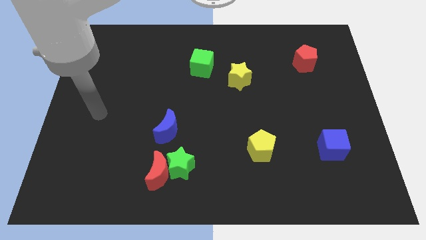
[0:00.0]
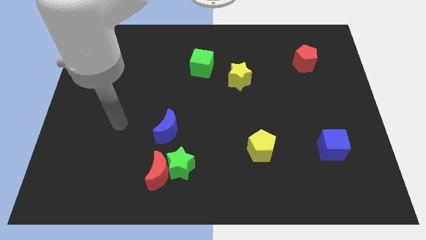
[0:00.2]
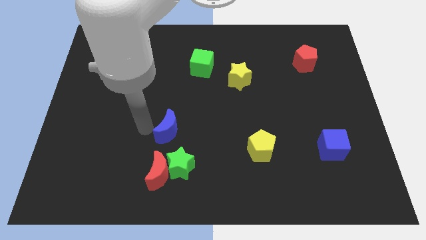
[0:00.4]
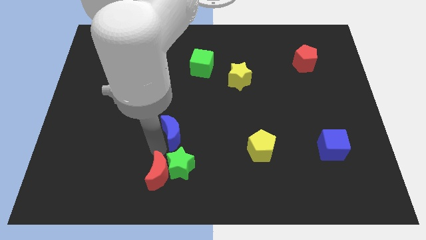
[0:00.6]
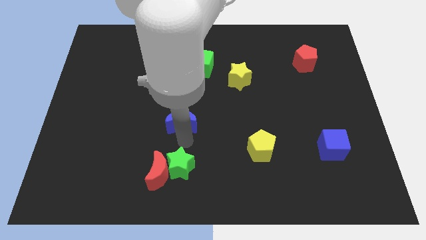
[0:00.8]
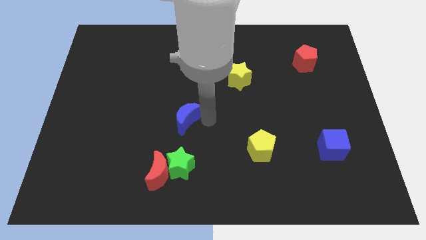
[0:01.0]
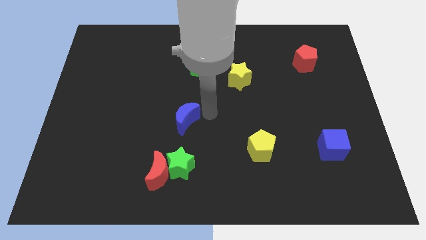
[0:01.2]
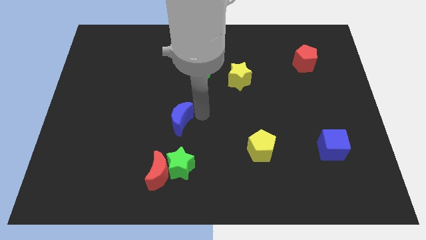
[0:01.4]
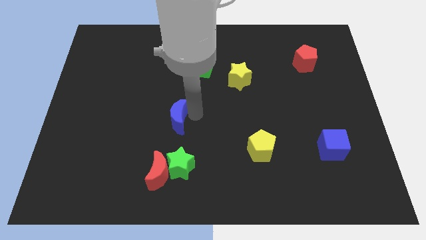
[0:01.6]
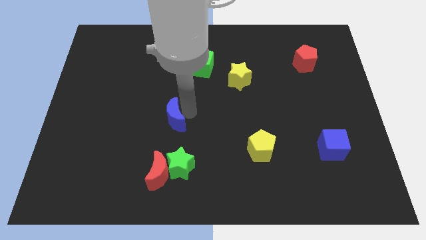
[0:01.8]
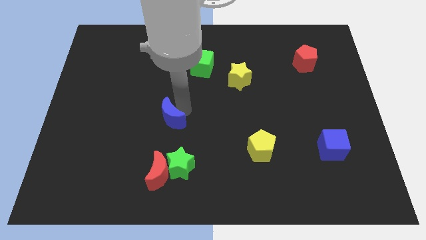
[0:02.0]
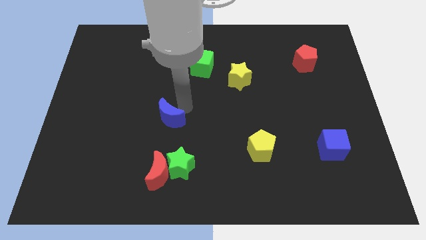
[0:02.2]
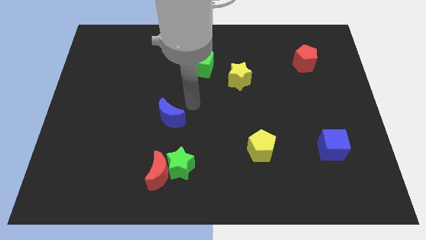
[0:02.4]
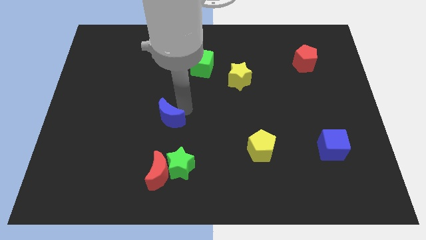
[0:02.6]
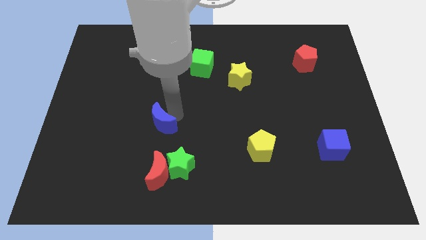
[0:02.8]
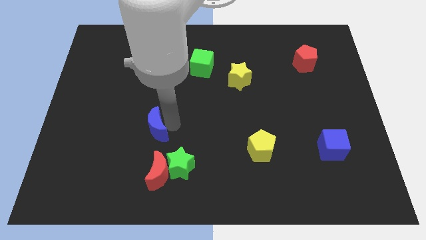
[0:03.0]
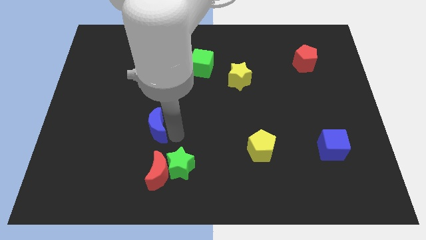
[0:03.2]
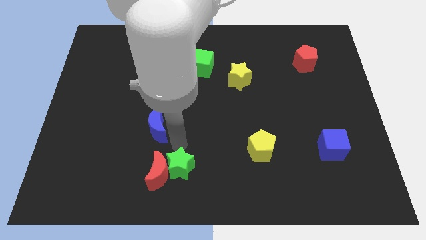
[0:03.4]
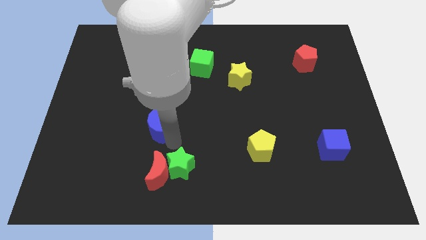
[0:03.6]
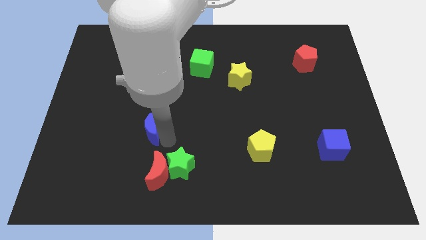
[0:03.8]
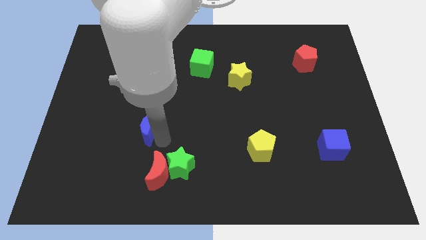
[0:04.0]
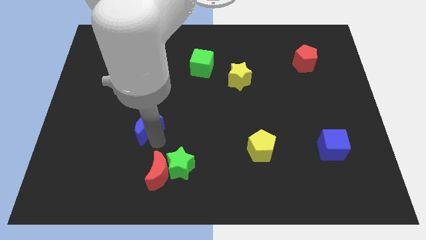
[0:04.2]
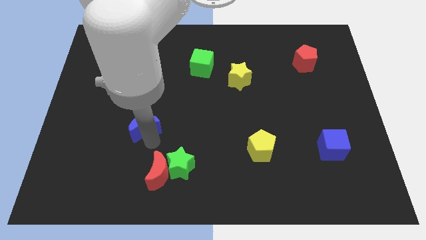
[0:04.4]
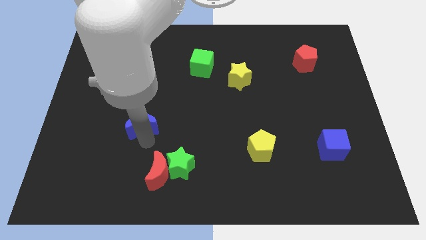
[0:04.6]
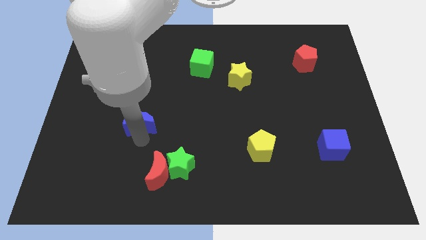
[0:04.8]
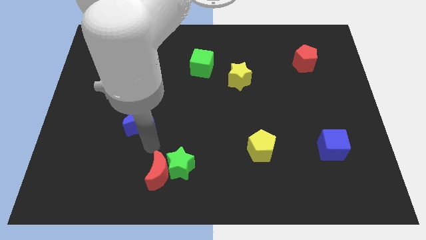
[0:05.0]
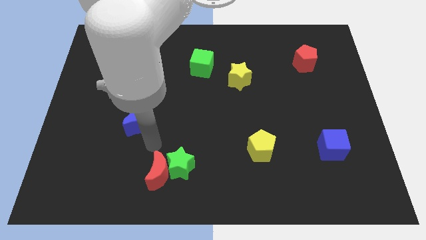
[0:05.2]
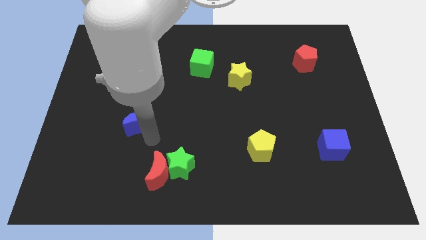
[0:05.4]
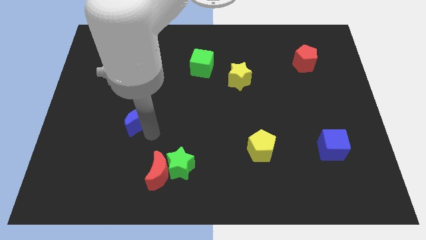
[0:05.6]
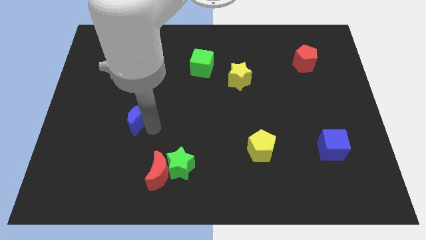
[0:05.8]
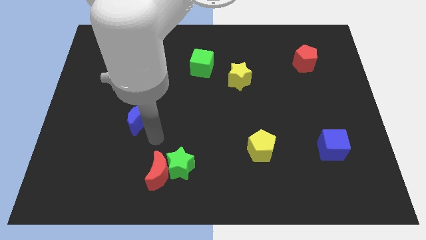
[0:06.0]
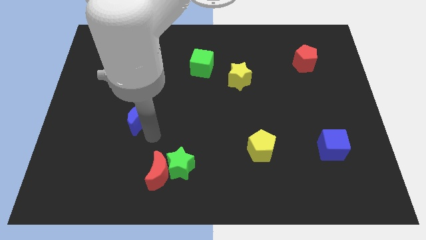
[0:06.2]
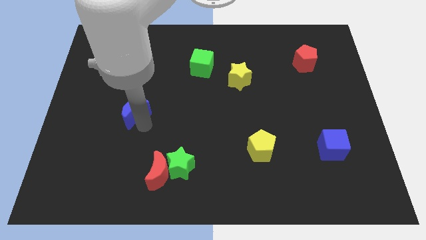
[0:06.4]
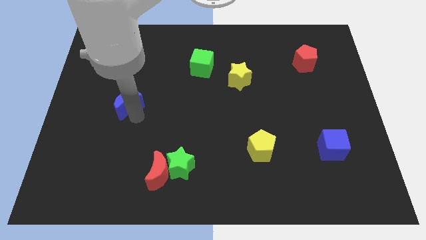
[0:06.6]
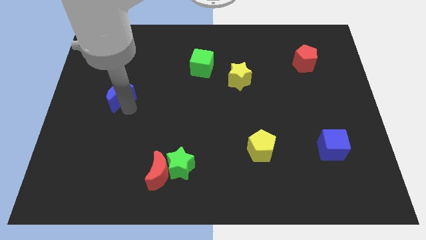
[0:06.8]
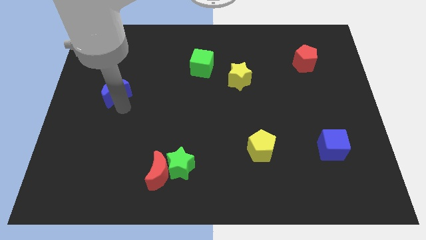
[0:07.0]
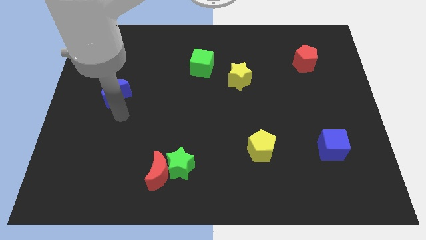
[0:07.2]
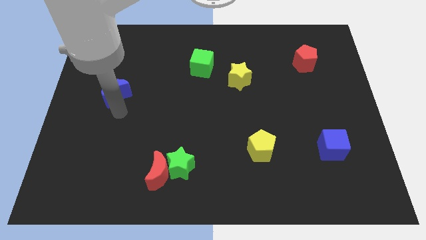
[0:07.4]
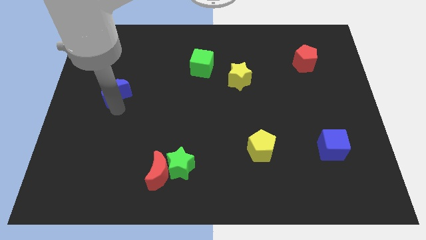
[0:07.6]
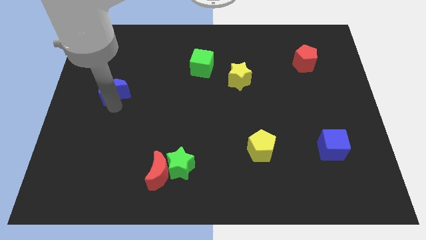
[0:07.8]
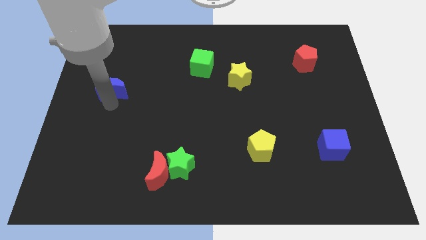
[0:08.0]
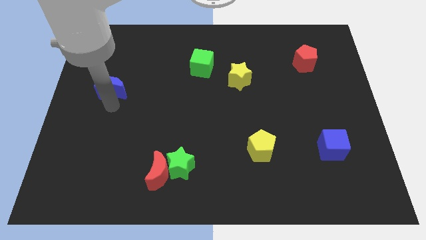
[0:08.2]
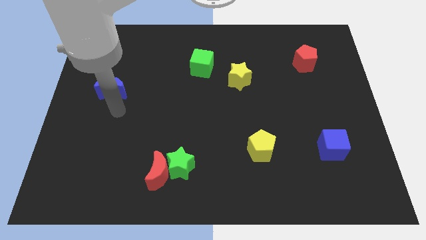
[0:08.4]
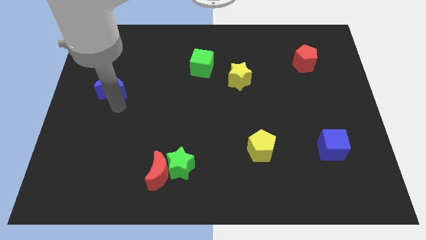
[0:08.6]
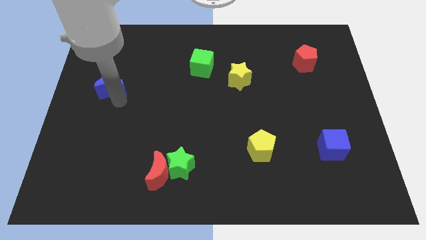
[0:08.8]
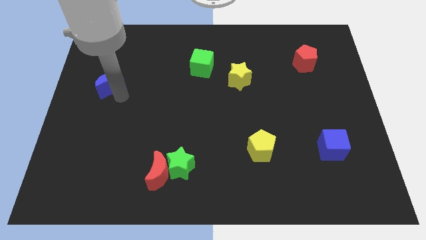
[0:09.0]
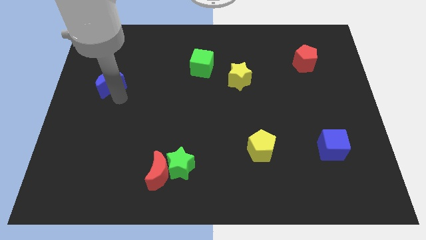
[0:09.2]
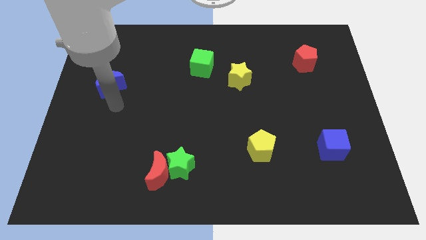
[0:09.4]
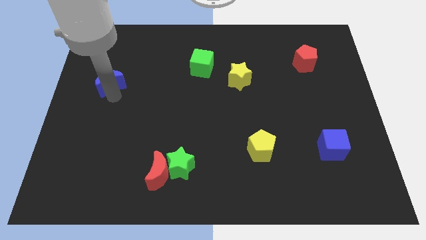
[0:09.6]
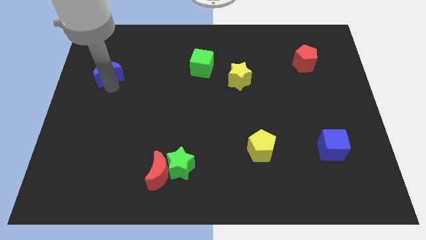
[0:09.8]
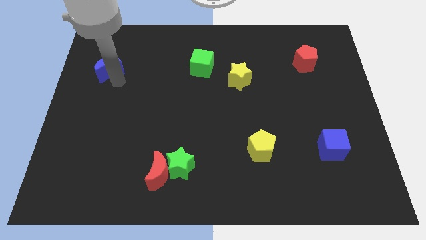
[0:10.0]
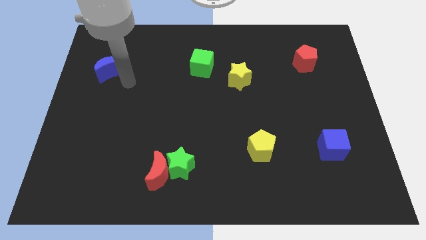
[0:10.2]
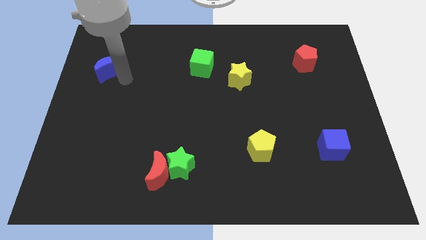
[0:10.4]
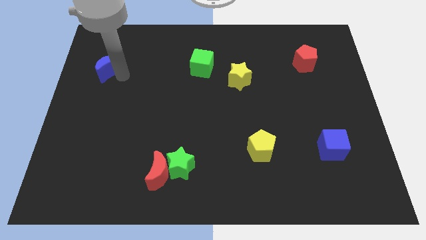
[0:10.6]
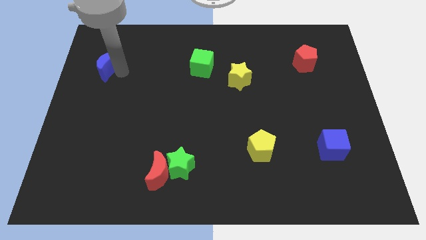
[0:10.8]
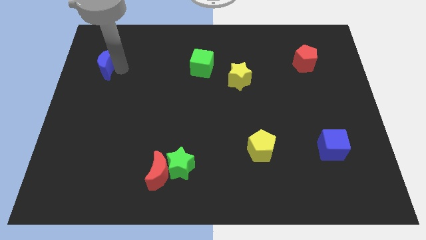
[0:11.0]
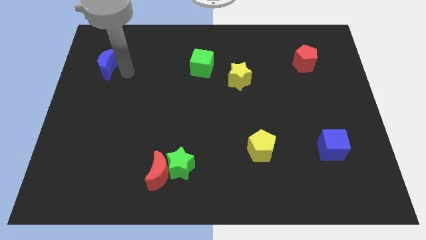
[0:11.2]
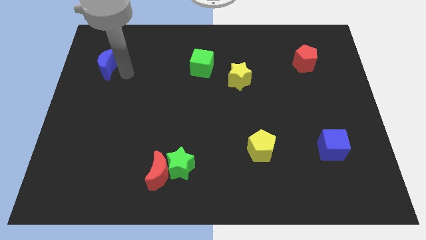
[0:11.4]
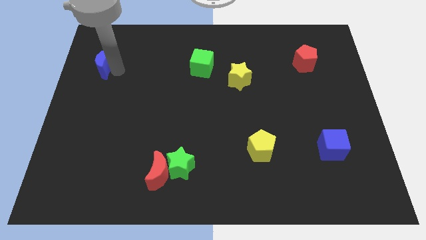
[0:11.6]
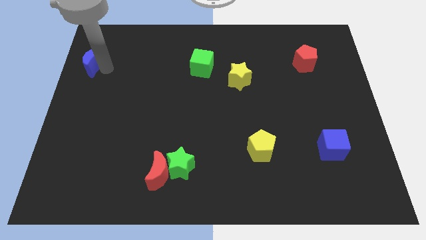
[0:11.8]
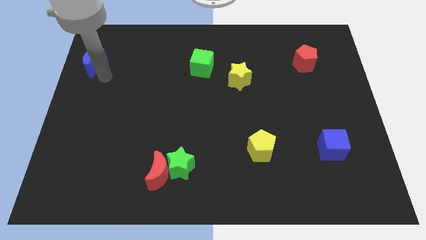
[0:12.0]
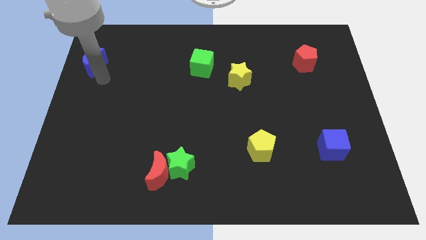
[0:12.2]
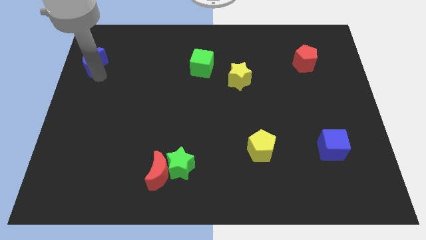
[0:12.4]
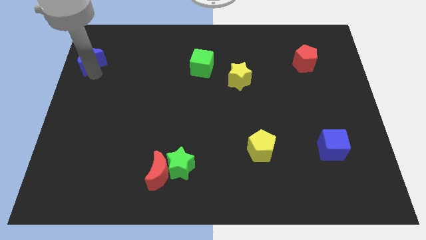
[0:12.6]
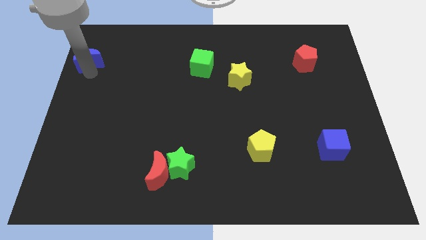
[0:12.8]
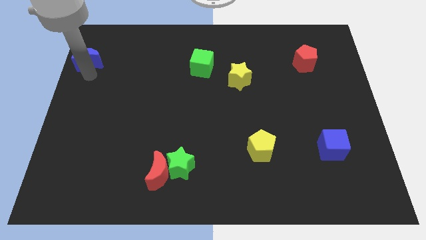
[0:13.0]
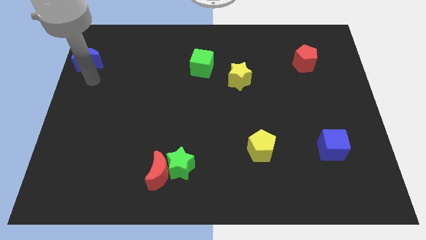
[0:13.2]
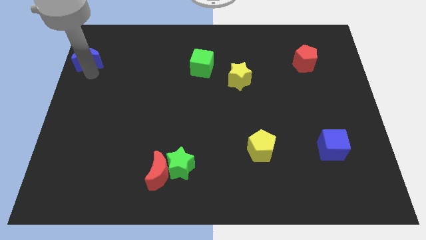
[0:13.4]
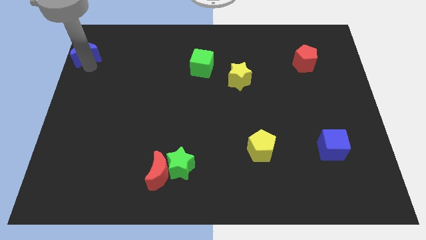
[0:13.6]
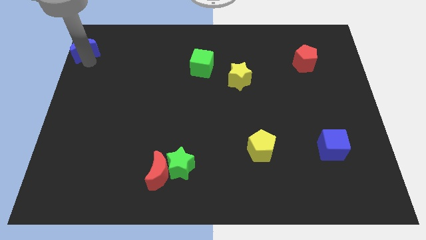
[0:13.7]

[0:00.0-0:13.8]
slide the blue moon to the top left
